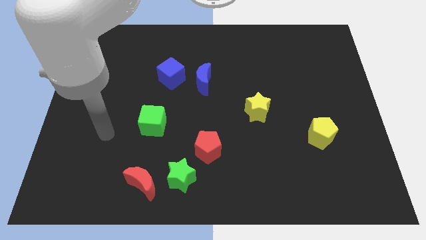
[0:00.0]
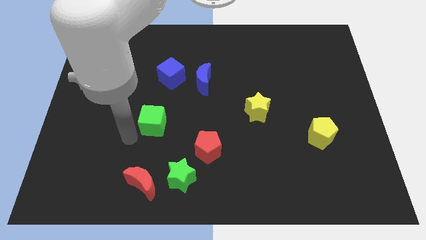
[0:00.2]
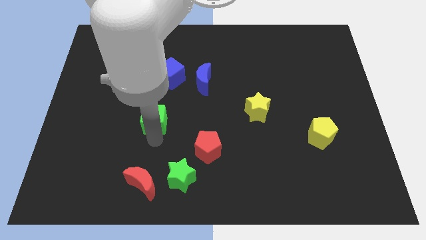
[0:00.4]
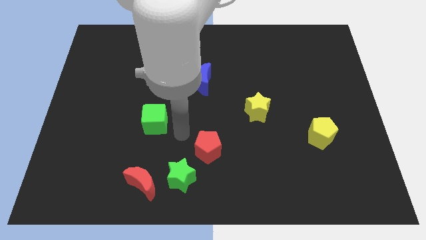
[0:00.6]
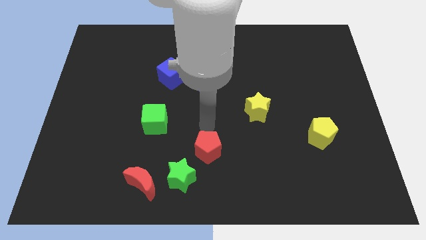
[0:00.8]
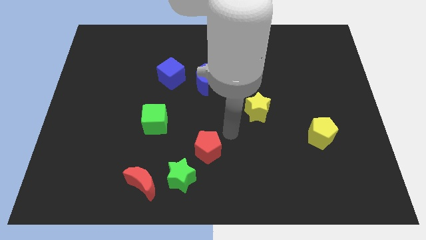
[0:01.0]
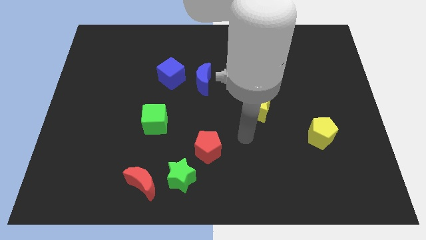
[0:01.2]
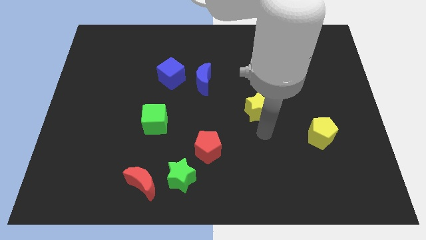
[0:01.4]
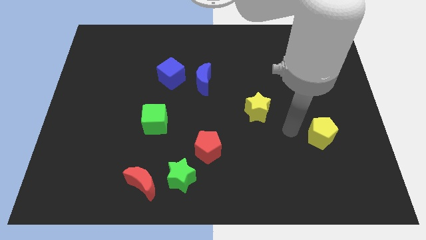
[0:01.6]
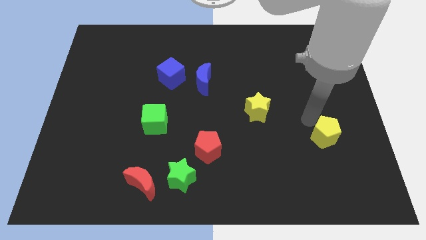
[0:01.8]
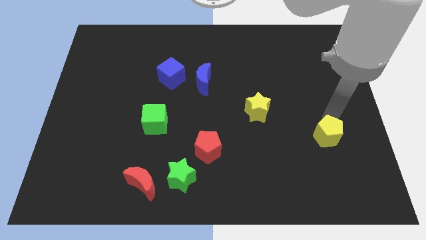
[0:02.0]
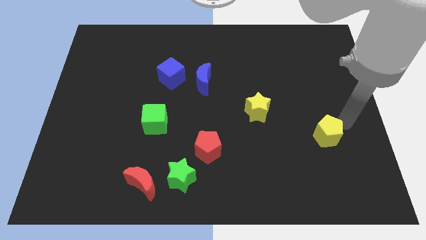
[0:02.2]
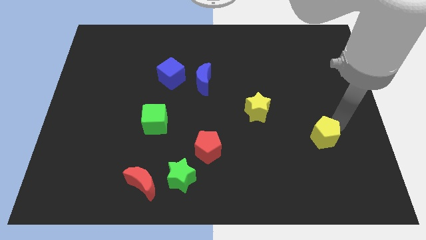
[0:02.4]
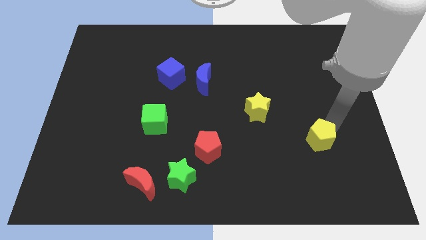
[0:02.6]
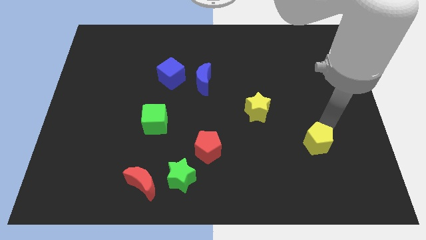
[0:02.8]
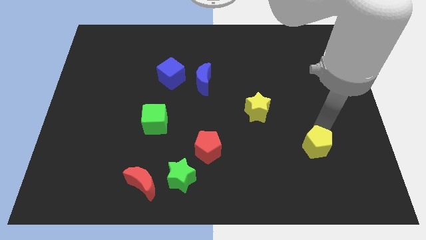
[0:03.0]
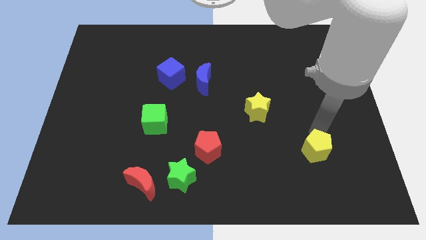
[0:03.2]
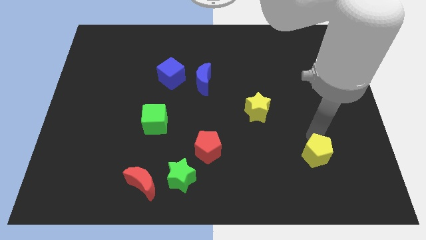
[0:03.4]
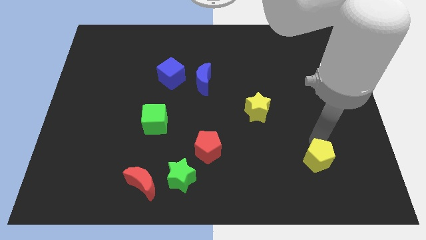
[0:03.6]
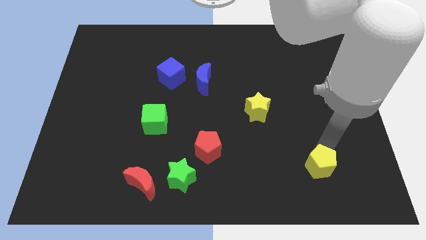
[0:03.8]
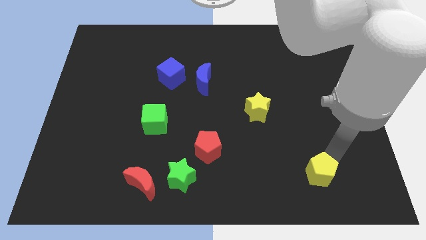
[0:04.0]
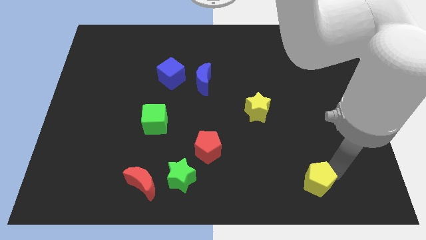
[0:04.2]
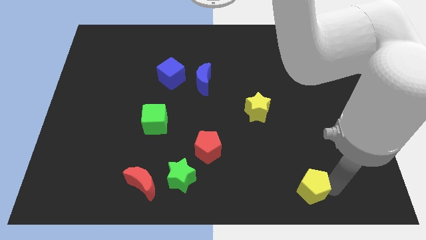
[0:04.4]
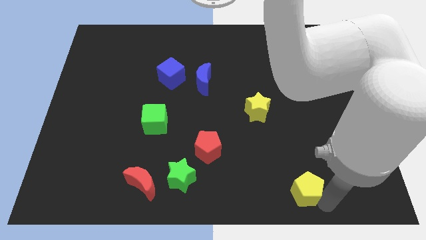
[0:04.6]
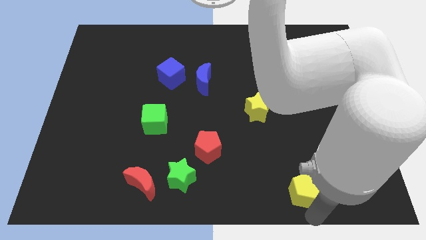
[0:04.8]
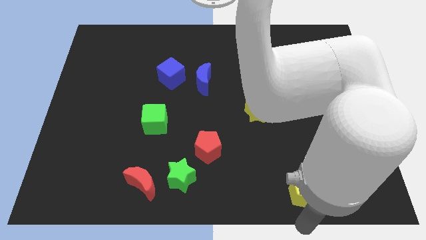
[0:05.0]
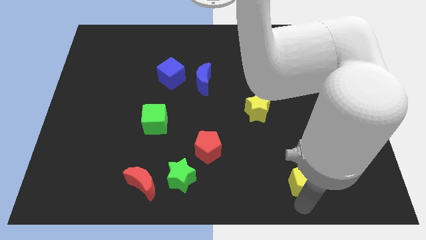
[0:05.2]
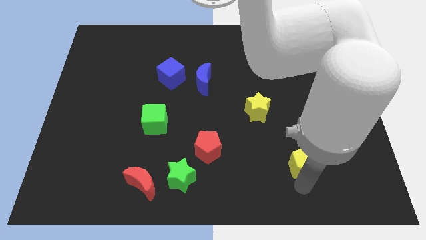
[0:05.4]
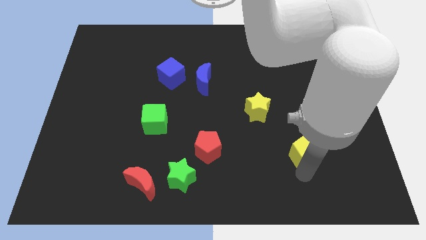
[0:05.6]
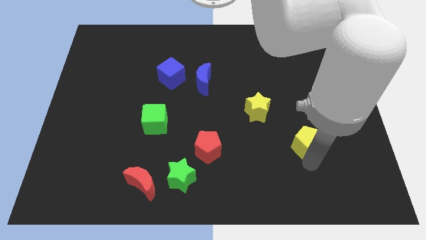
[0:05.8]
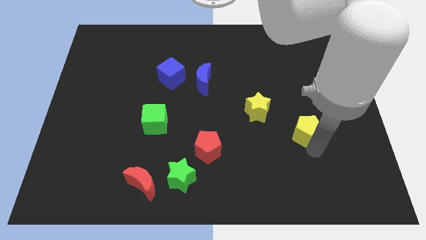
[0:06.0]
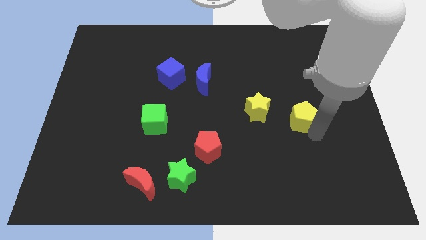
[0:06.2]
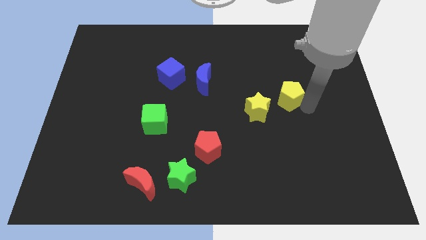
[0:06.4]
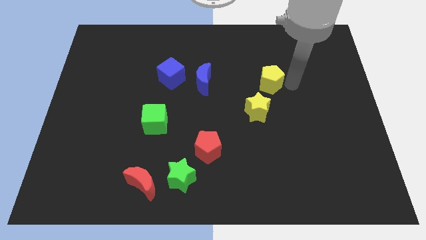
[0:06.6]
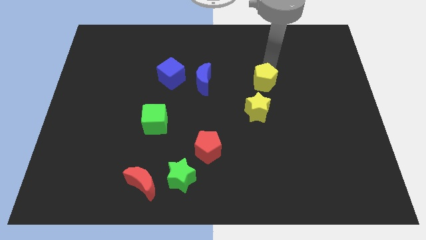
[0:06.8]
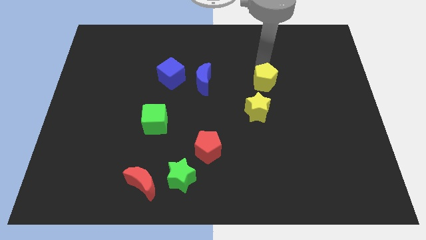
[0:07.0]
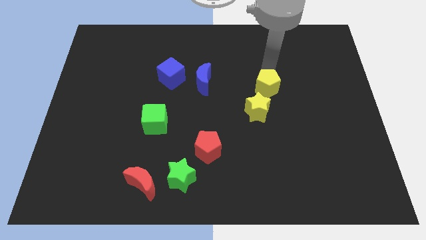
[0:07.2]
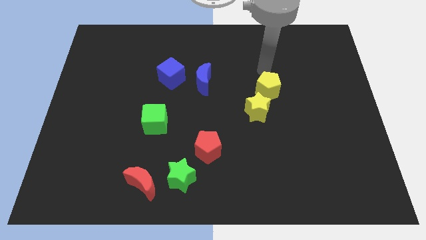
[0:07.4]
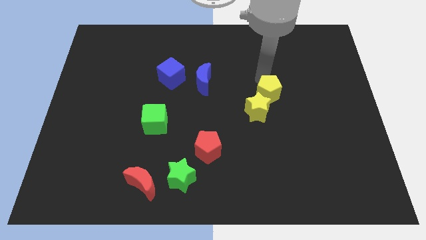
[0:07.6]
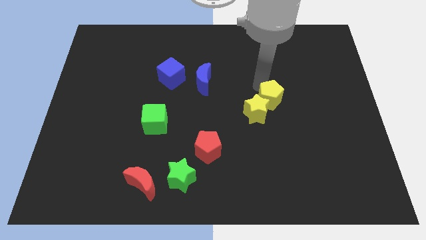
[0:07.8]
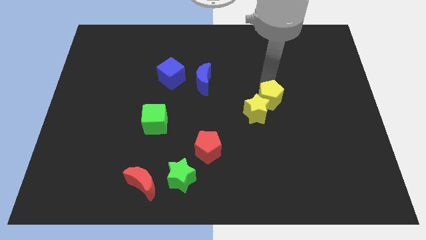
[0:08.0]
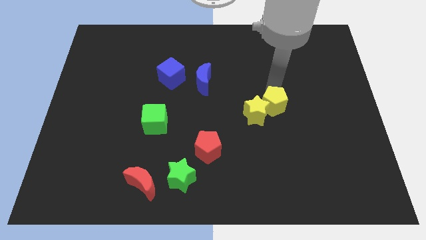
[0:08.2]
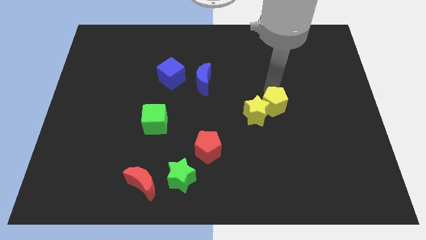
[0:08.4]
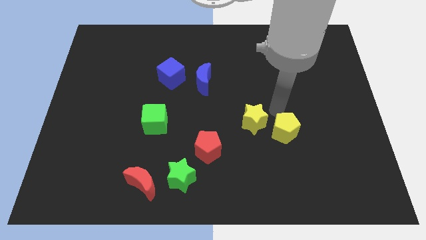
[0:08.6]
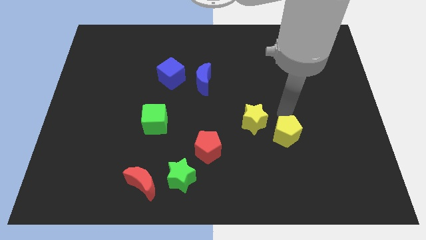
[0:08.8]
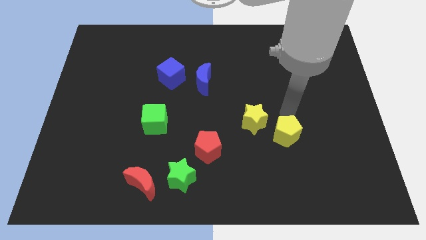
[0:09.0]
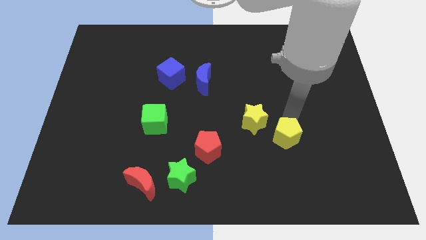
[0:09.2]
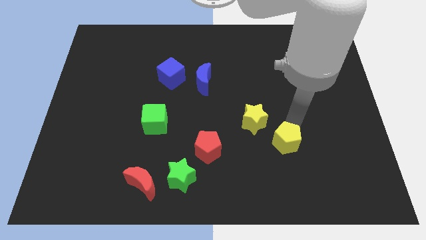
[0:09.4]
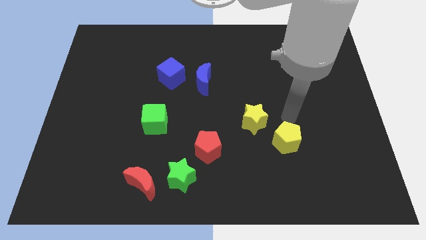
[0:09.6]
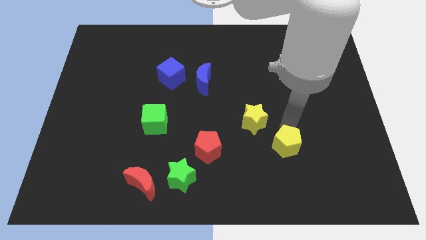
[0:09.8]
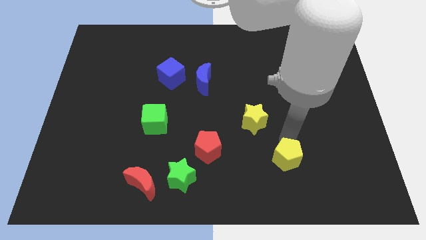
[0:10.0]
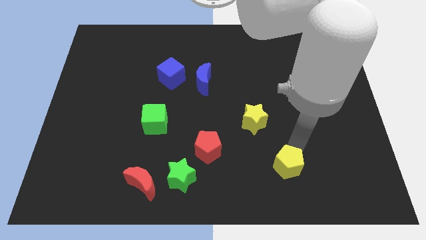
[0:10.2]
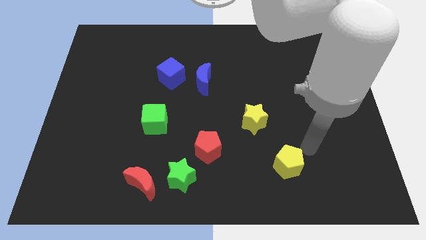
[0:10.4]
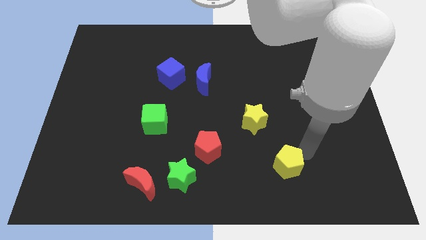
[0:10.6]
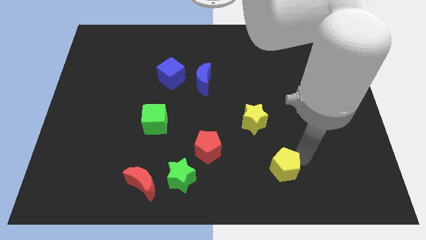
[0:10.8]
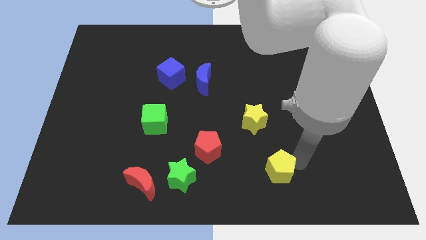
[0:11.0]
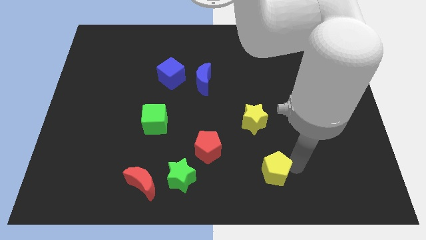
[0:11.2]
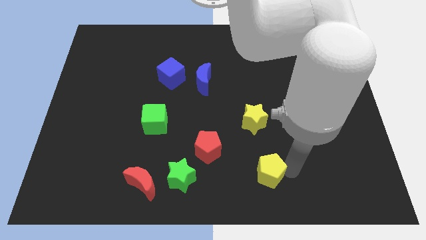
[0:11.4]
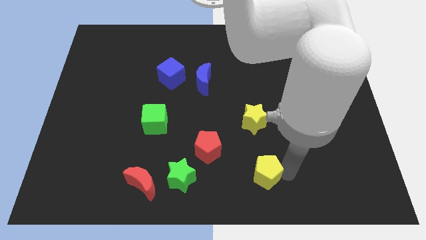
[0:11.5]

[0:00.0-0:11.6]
slide the yellow pentagon to the bottom side

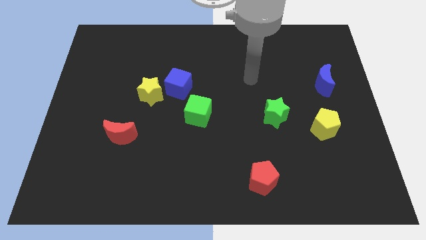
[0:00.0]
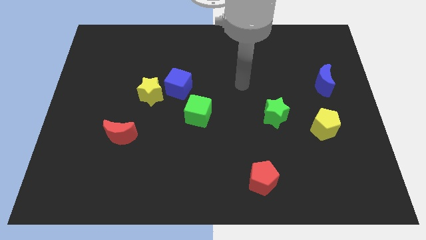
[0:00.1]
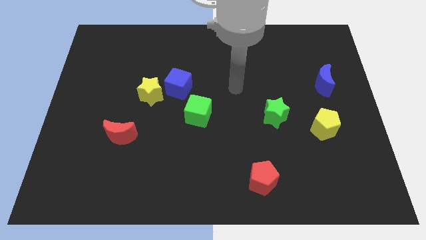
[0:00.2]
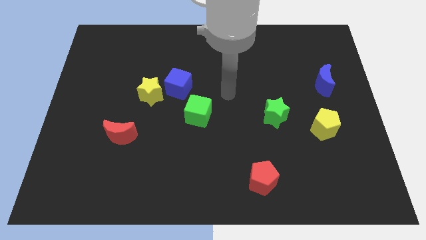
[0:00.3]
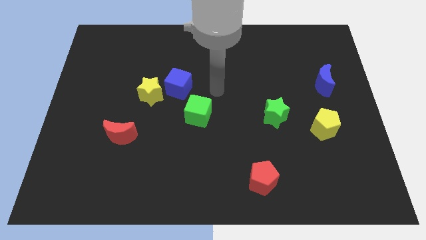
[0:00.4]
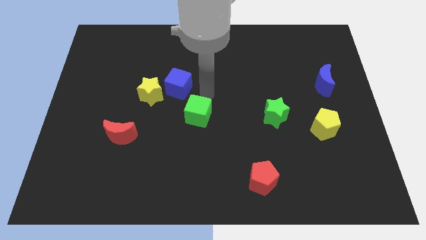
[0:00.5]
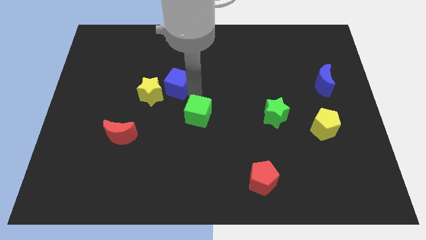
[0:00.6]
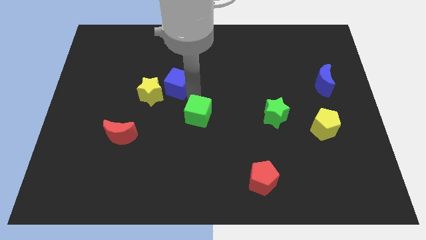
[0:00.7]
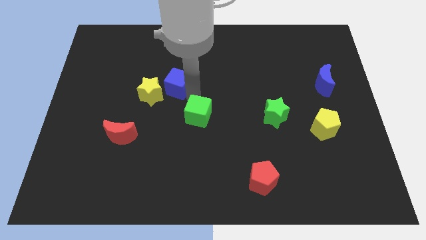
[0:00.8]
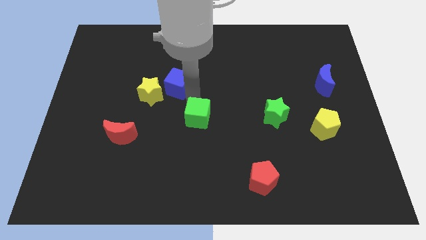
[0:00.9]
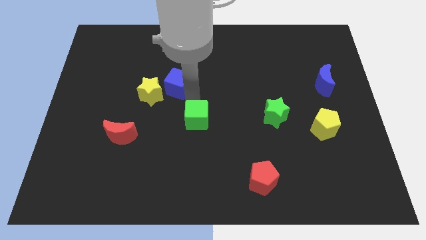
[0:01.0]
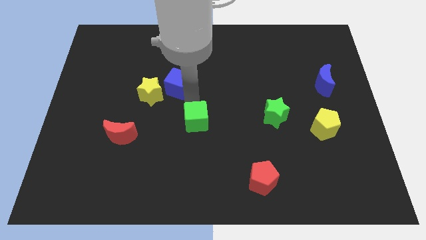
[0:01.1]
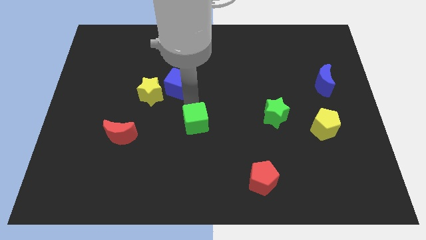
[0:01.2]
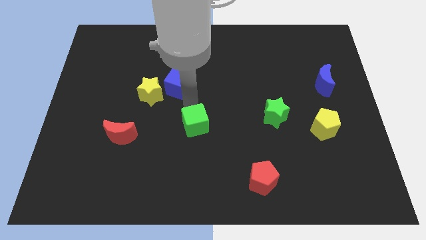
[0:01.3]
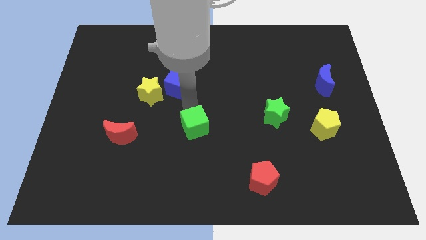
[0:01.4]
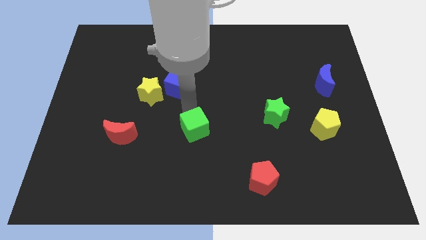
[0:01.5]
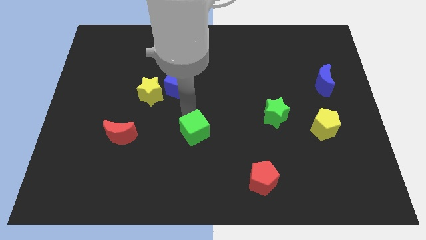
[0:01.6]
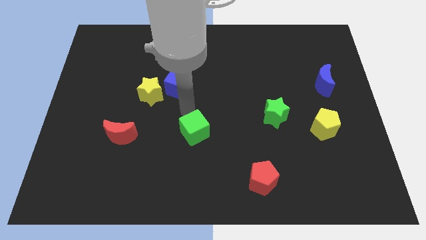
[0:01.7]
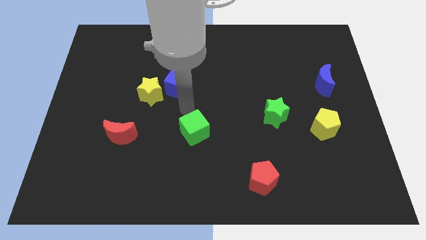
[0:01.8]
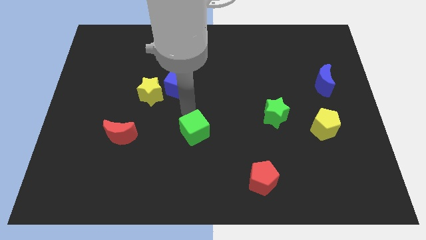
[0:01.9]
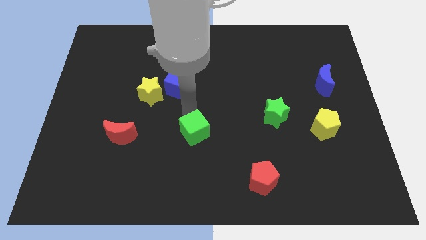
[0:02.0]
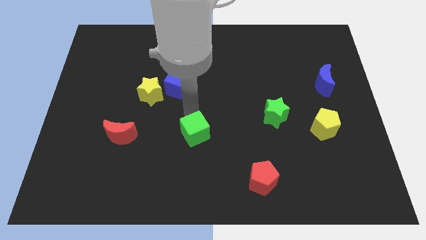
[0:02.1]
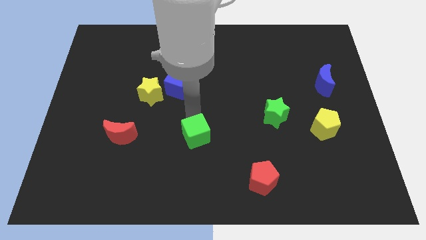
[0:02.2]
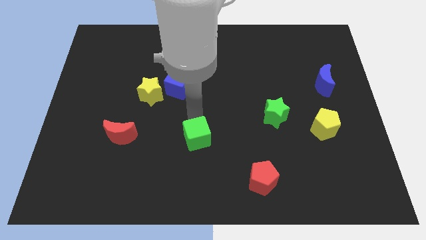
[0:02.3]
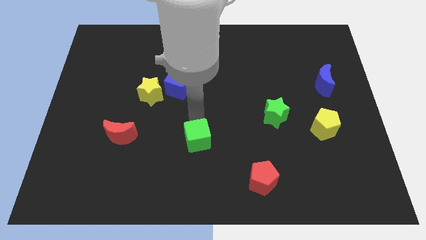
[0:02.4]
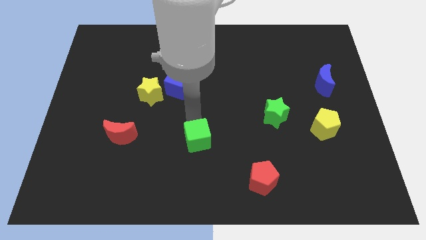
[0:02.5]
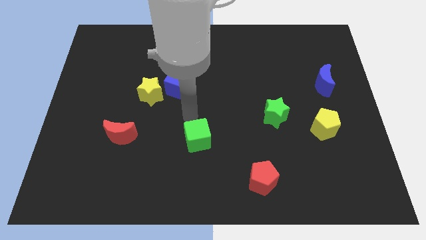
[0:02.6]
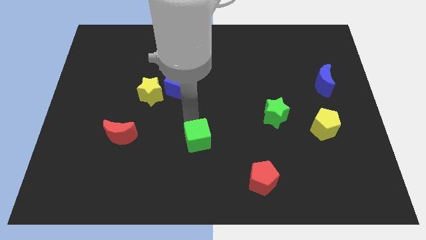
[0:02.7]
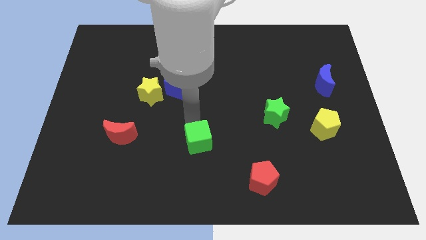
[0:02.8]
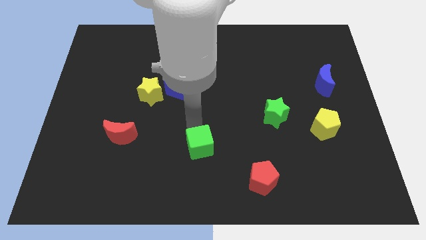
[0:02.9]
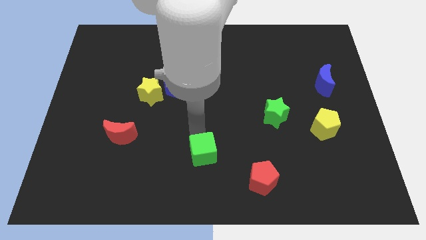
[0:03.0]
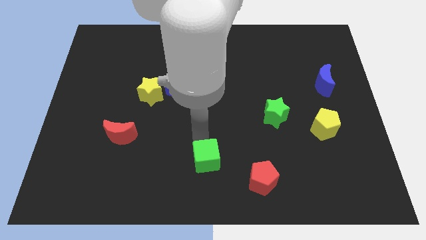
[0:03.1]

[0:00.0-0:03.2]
move the green cube to the bottom
